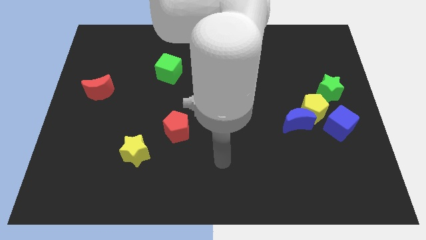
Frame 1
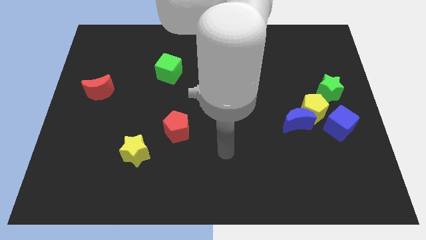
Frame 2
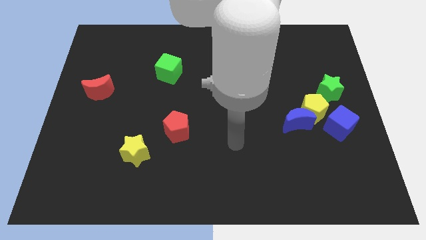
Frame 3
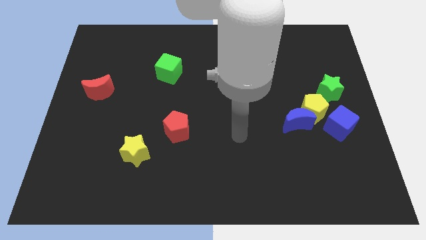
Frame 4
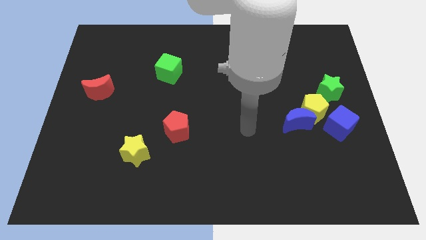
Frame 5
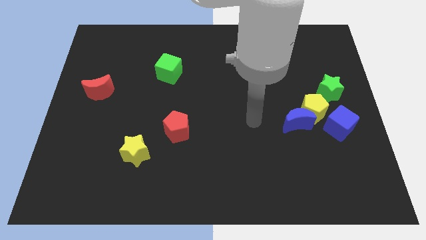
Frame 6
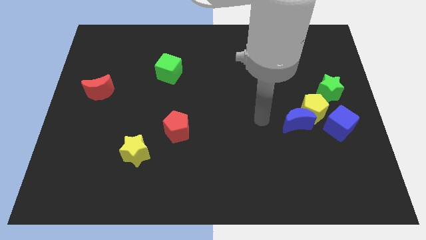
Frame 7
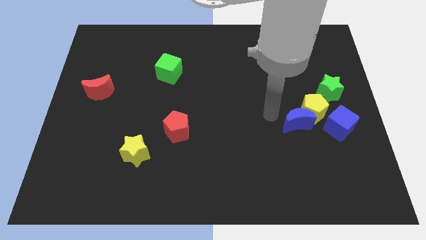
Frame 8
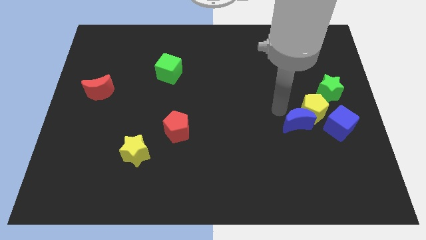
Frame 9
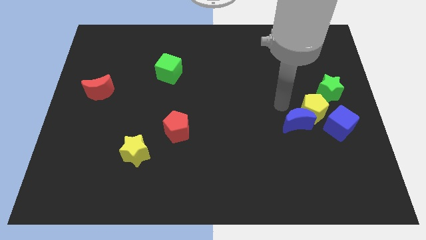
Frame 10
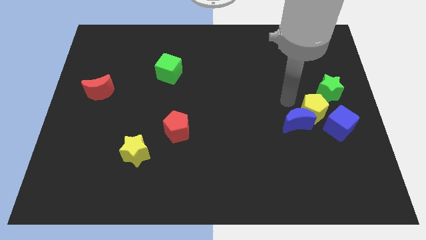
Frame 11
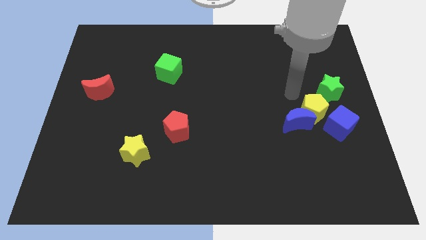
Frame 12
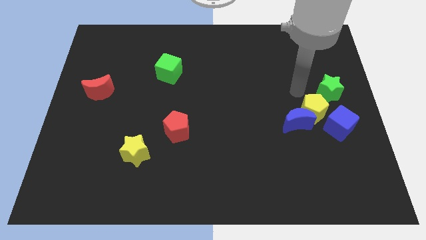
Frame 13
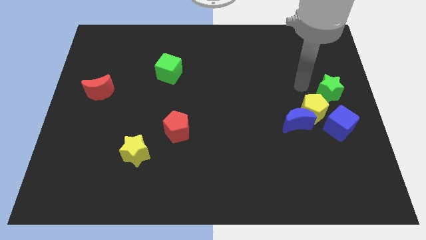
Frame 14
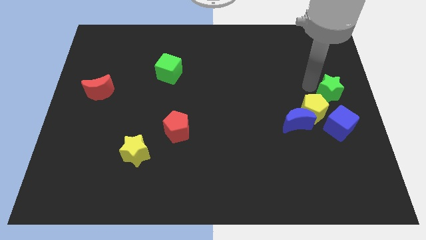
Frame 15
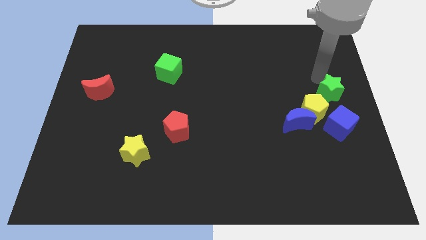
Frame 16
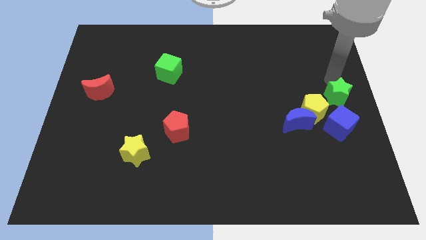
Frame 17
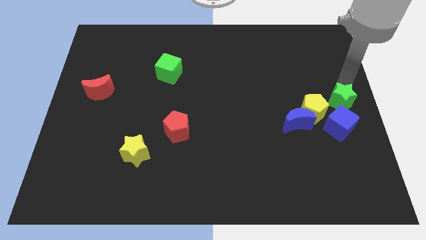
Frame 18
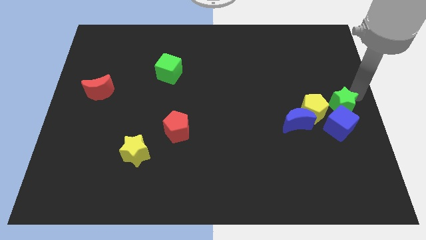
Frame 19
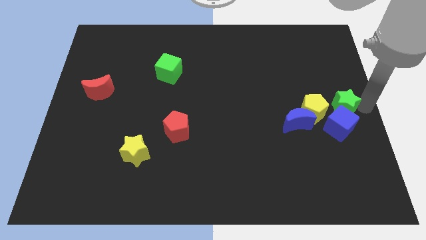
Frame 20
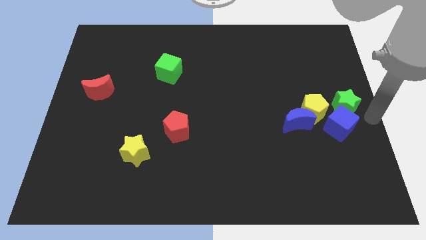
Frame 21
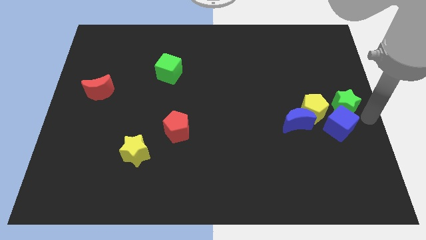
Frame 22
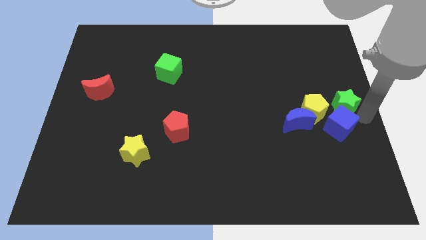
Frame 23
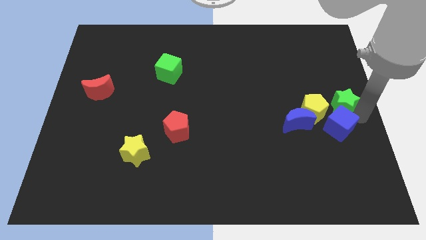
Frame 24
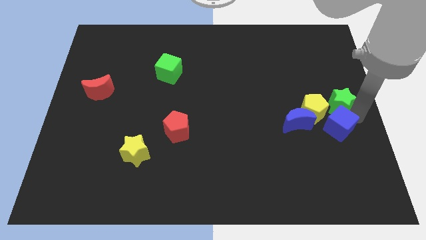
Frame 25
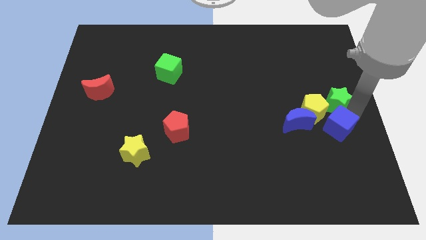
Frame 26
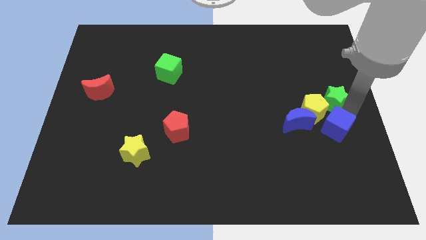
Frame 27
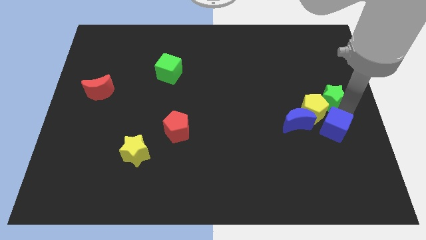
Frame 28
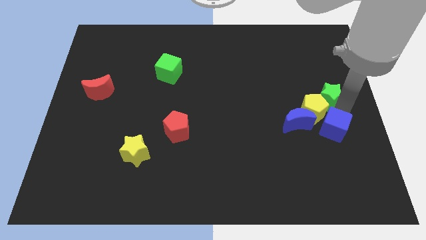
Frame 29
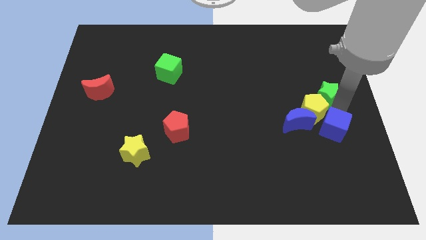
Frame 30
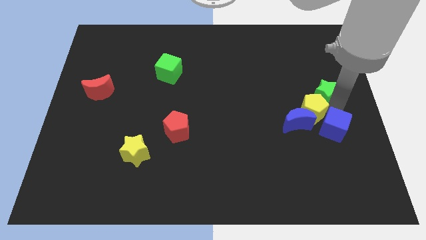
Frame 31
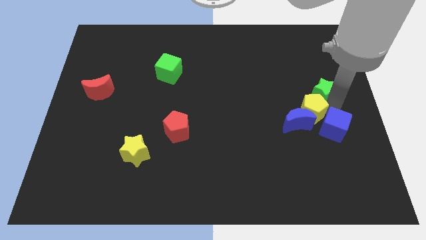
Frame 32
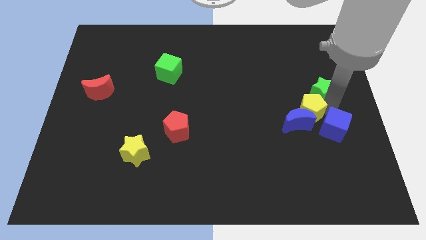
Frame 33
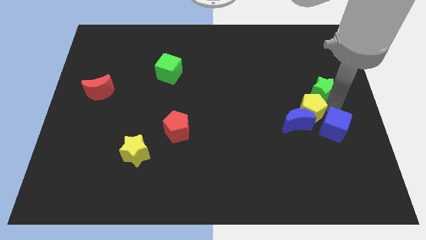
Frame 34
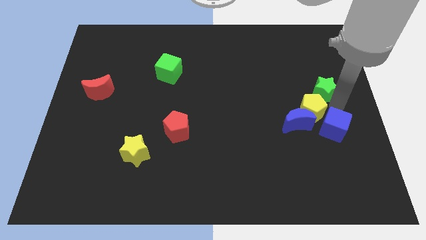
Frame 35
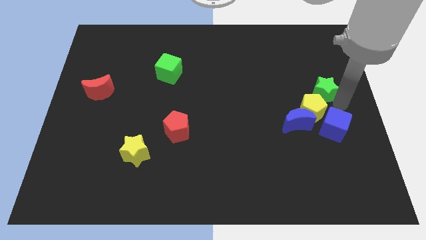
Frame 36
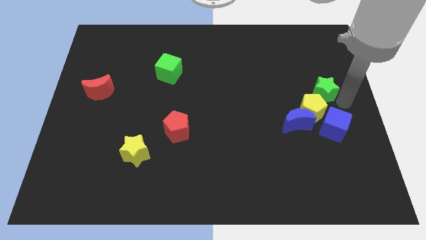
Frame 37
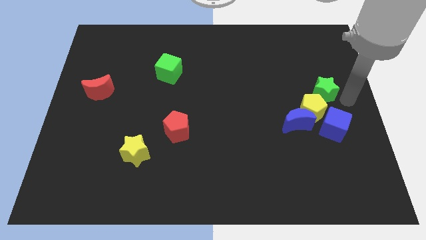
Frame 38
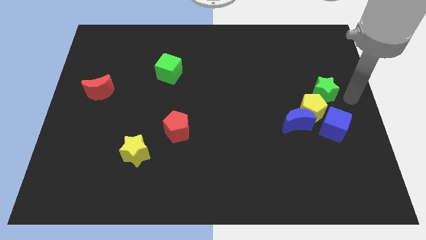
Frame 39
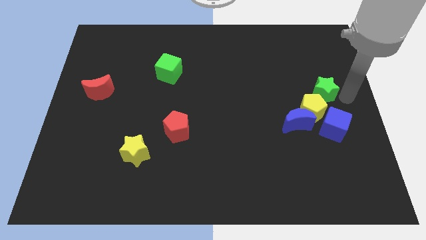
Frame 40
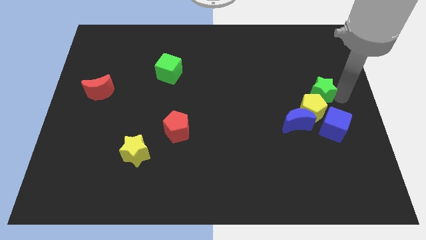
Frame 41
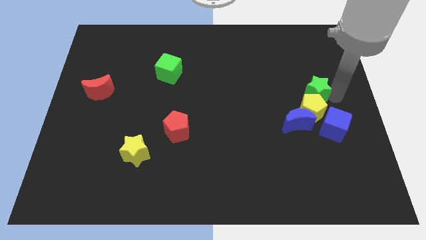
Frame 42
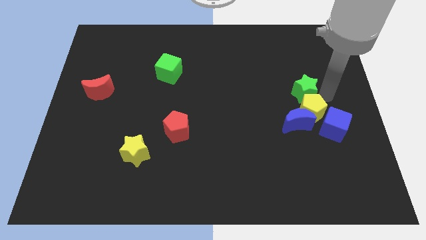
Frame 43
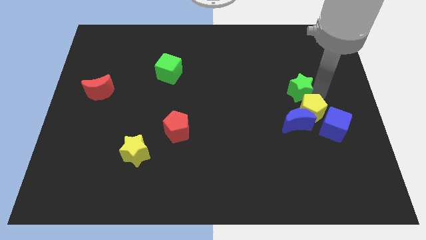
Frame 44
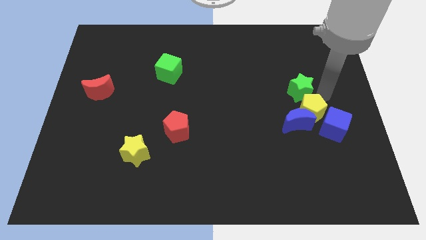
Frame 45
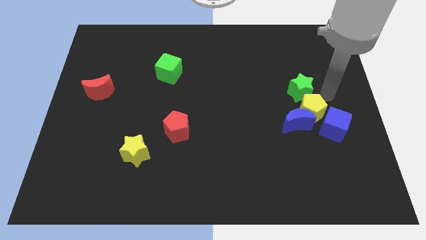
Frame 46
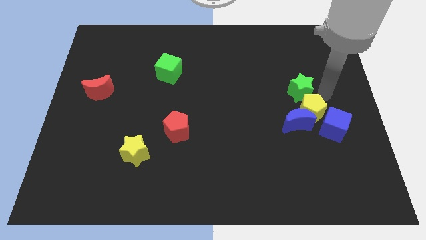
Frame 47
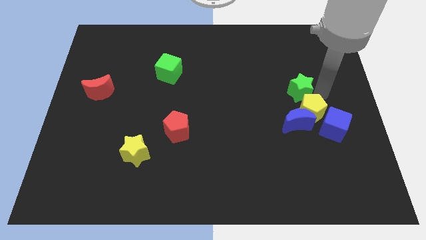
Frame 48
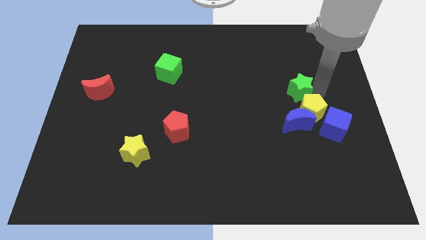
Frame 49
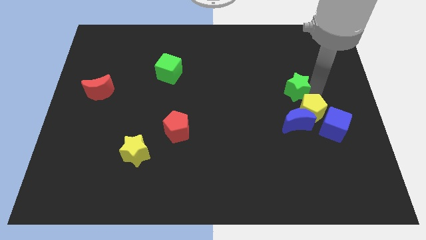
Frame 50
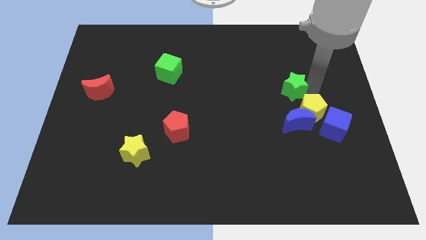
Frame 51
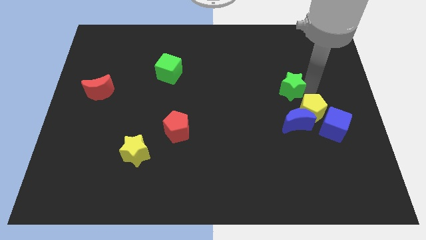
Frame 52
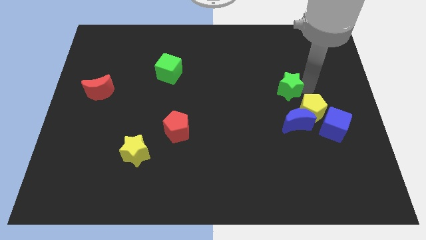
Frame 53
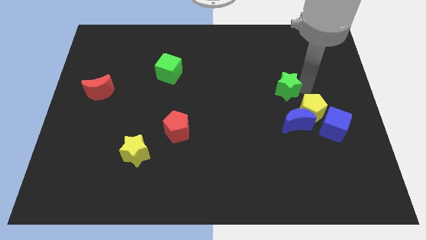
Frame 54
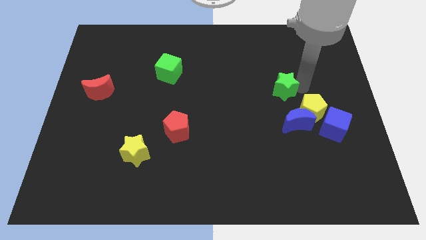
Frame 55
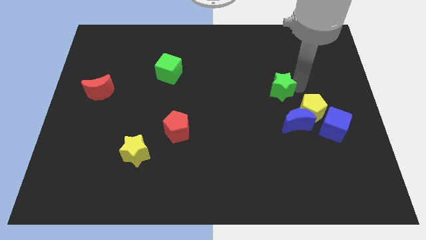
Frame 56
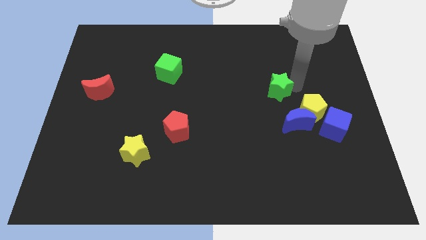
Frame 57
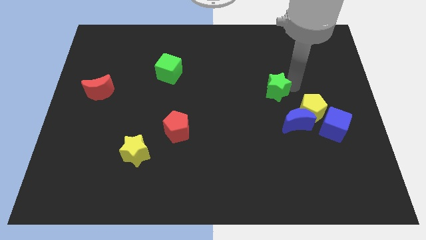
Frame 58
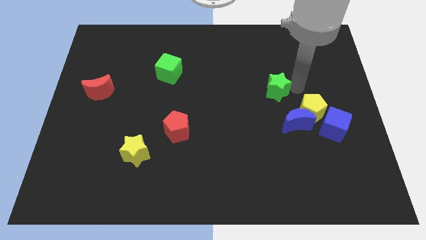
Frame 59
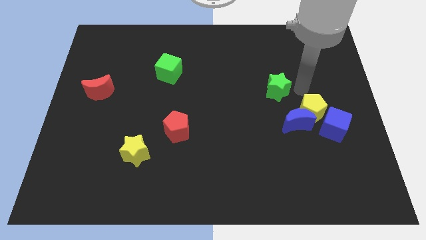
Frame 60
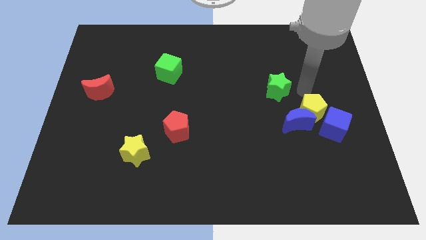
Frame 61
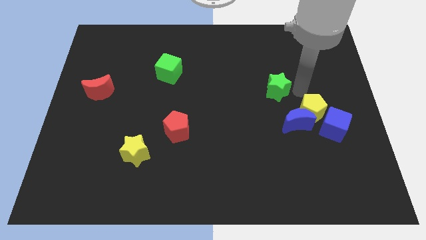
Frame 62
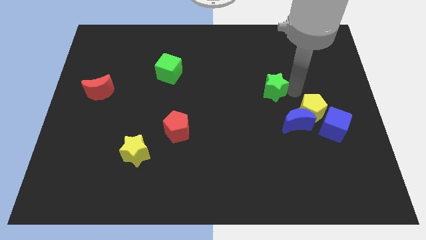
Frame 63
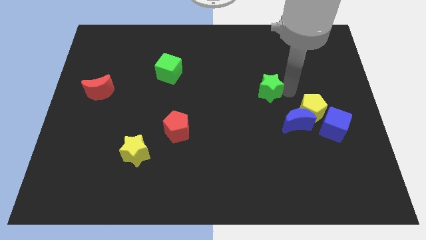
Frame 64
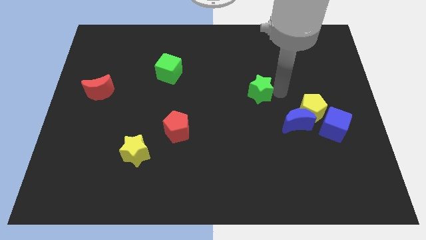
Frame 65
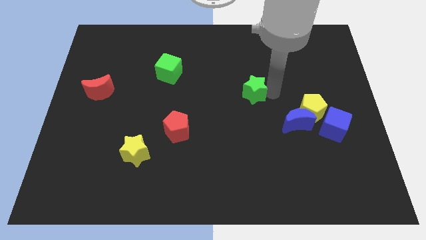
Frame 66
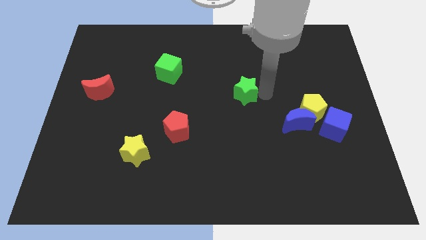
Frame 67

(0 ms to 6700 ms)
slide the green star left

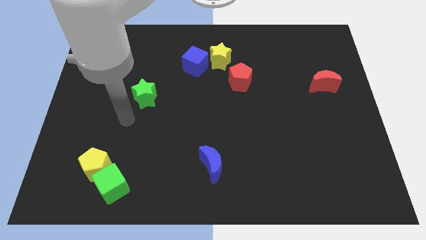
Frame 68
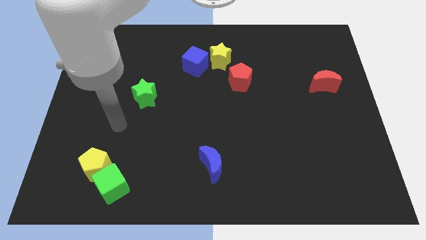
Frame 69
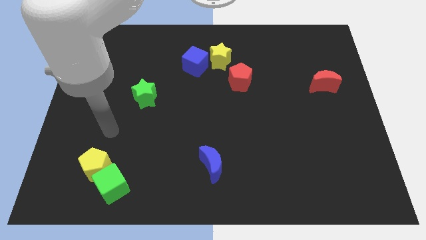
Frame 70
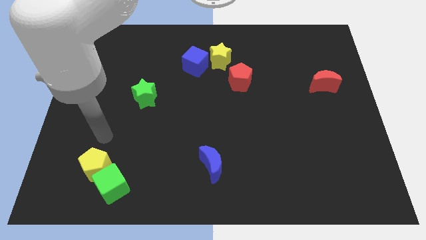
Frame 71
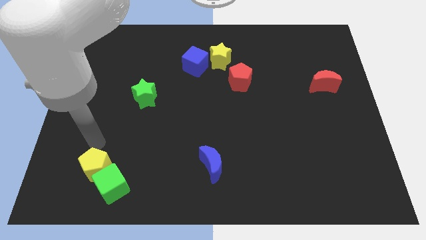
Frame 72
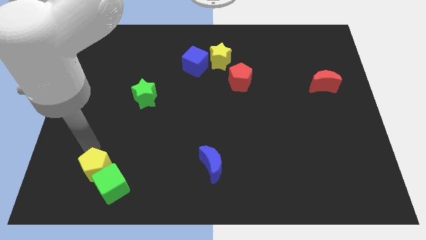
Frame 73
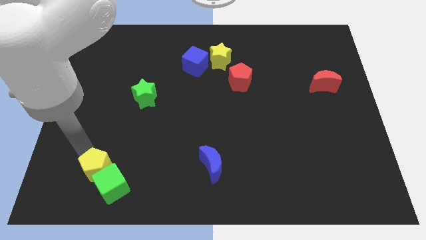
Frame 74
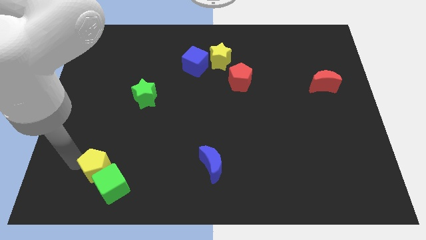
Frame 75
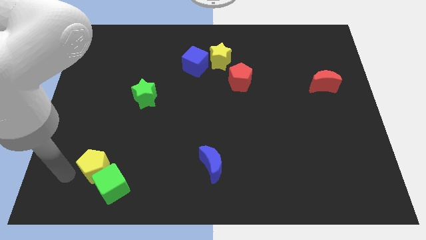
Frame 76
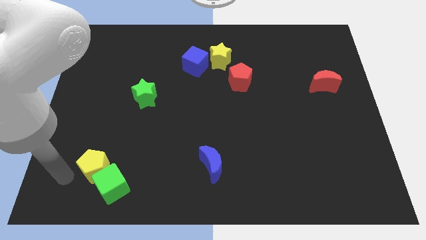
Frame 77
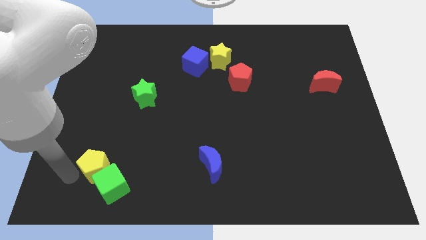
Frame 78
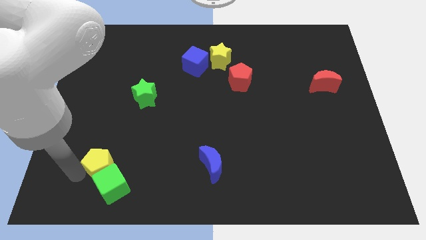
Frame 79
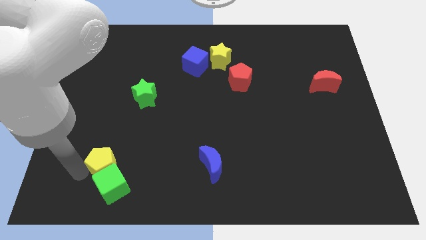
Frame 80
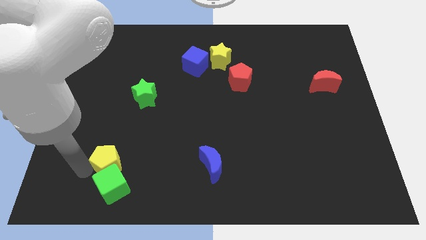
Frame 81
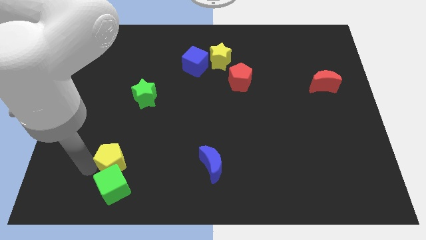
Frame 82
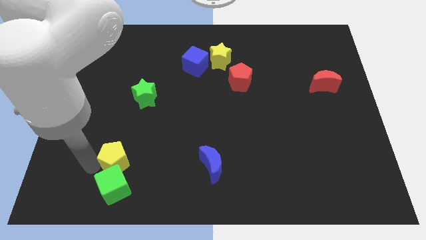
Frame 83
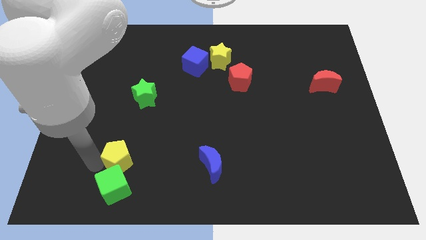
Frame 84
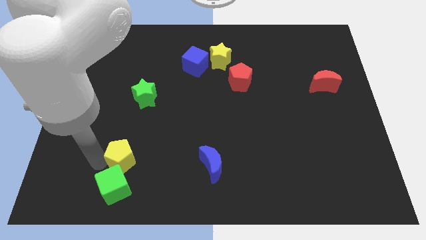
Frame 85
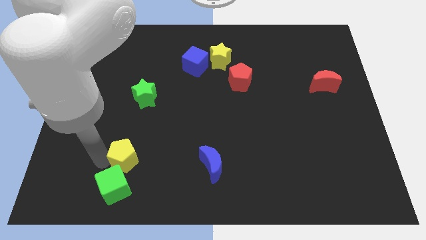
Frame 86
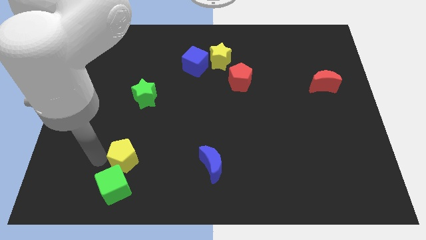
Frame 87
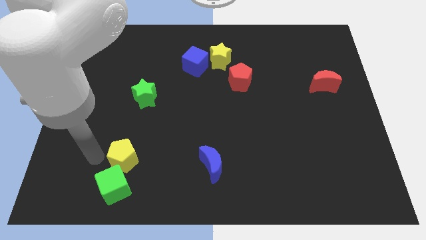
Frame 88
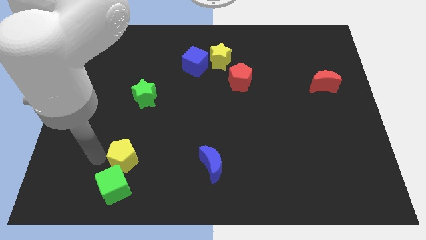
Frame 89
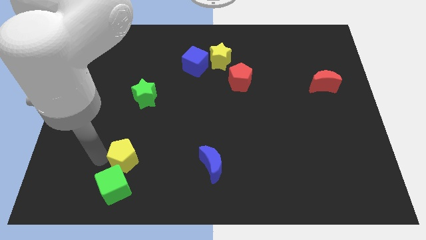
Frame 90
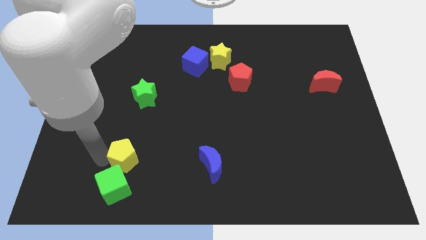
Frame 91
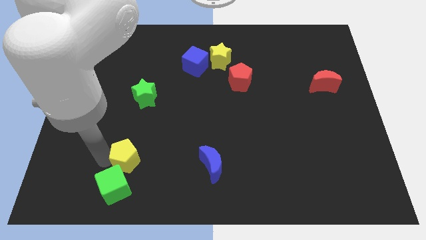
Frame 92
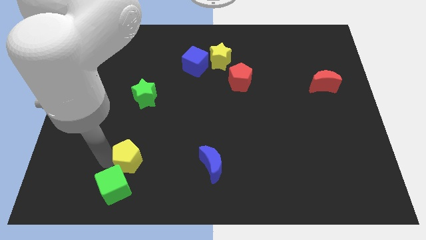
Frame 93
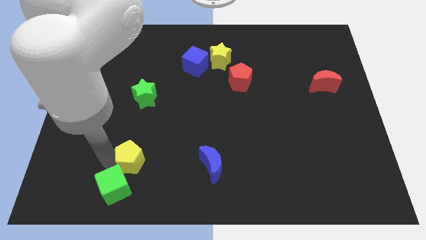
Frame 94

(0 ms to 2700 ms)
slightly push the yellow pentagon right
